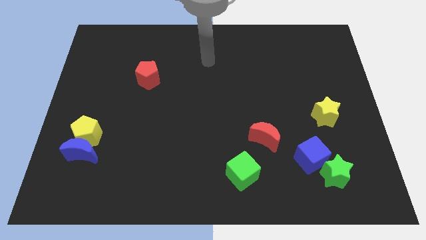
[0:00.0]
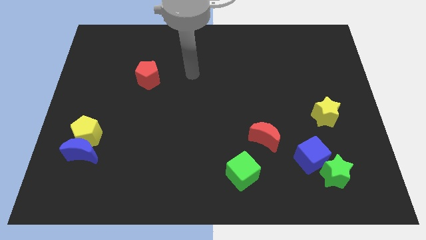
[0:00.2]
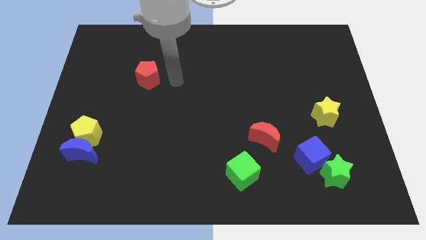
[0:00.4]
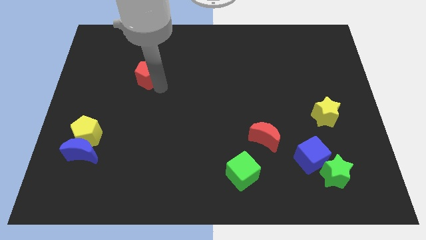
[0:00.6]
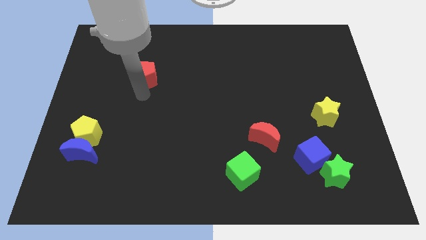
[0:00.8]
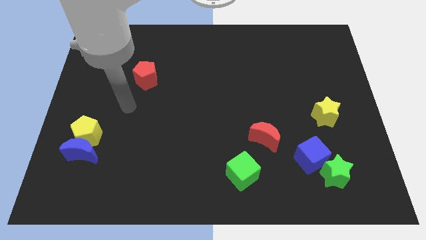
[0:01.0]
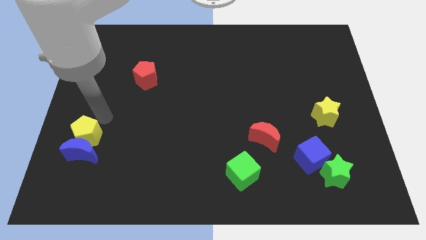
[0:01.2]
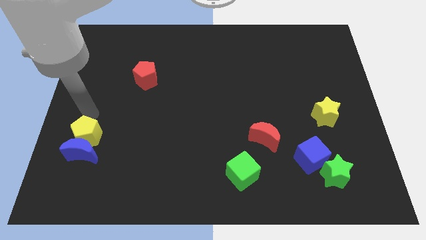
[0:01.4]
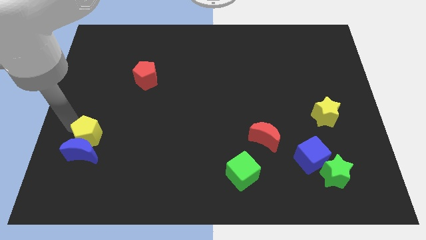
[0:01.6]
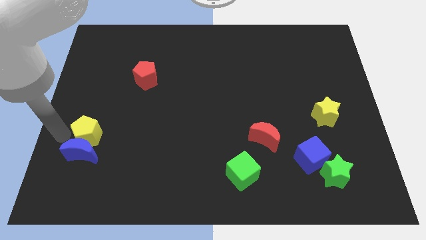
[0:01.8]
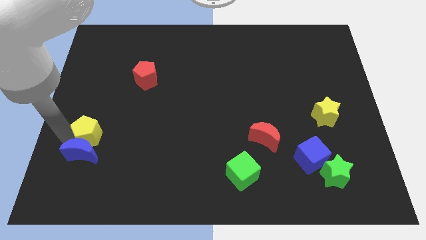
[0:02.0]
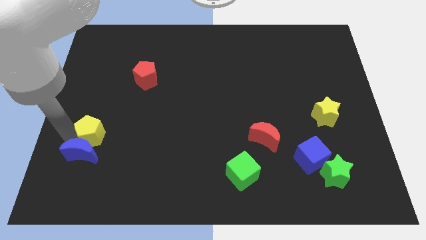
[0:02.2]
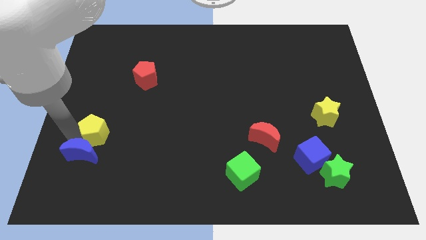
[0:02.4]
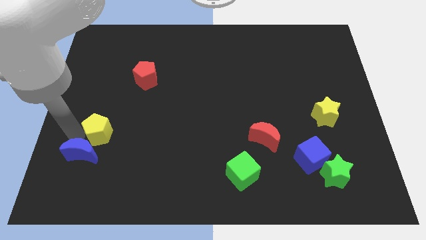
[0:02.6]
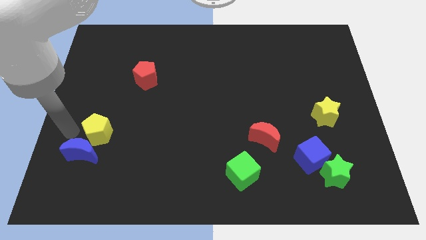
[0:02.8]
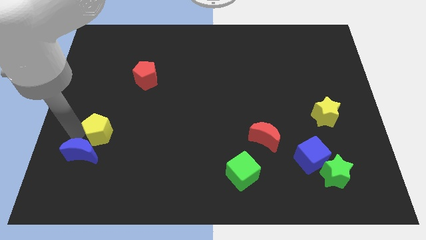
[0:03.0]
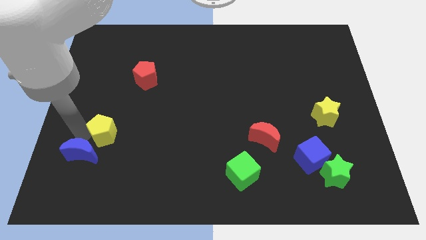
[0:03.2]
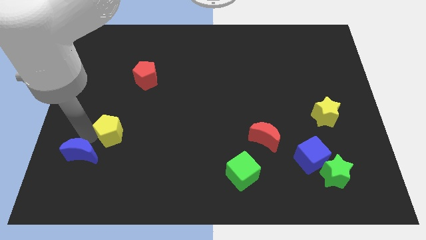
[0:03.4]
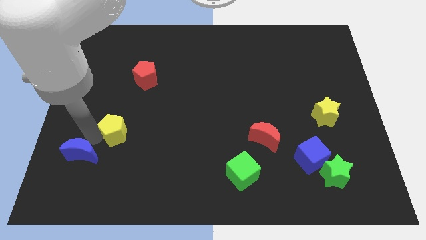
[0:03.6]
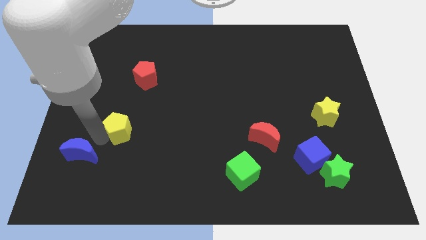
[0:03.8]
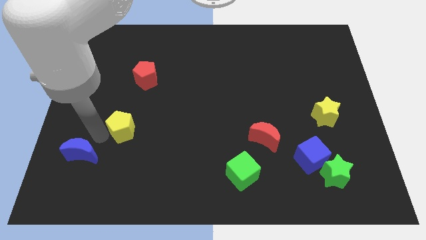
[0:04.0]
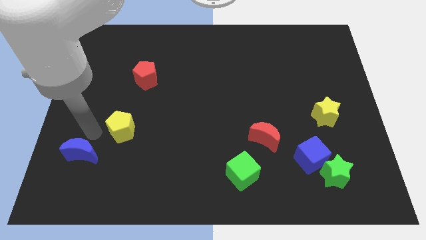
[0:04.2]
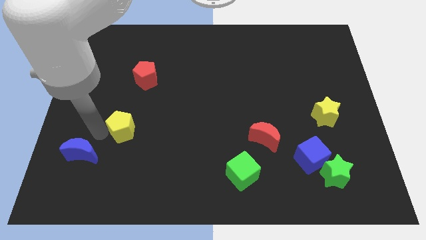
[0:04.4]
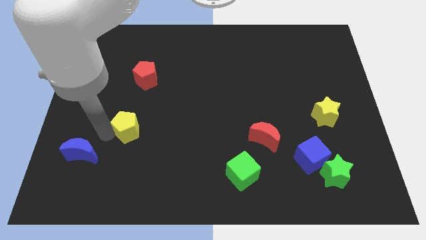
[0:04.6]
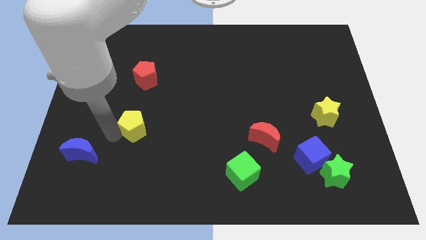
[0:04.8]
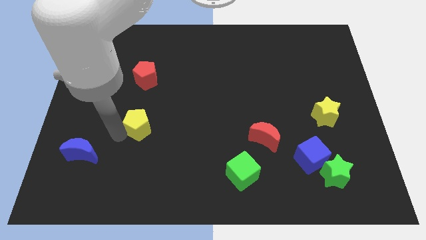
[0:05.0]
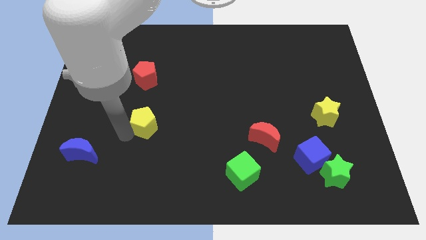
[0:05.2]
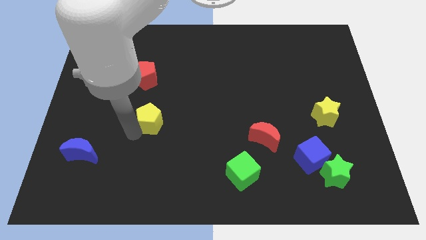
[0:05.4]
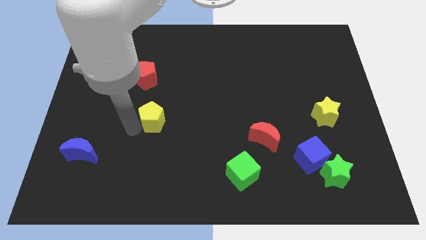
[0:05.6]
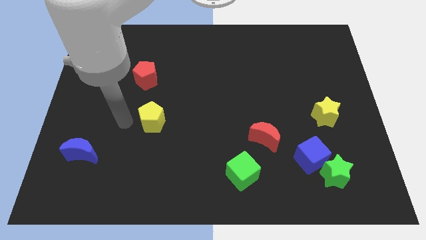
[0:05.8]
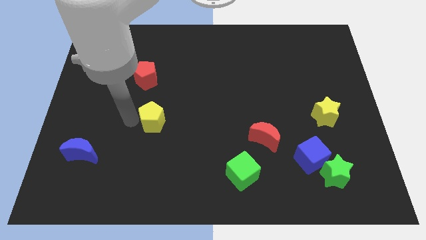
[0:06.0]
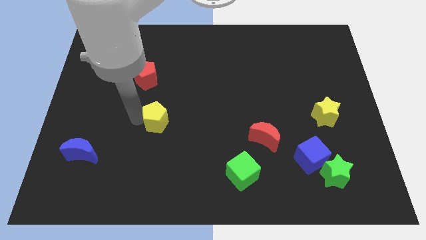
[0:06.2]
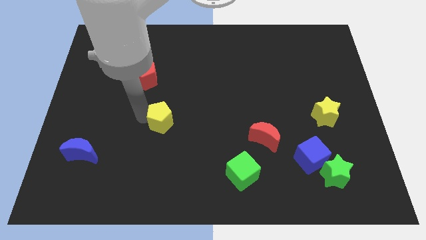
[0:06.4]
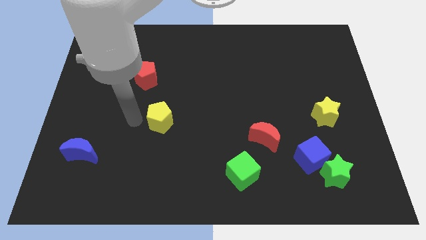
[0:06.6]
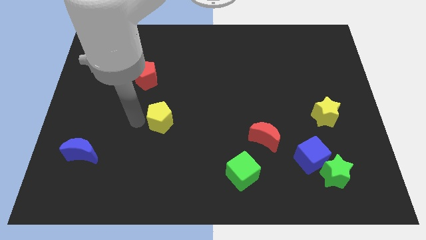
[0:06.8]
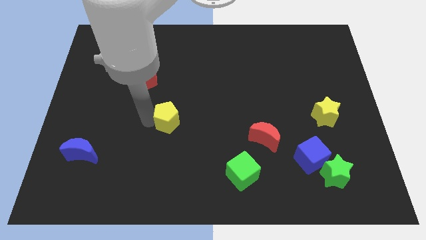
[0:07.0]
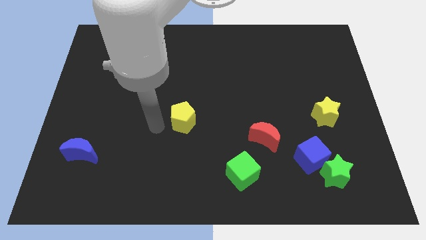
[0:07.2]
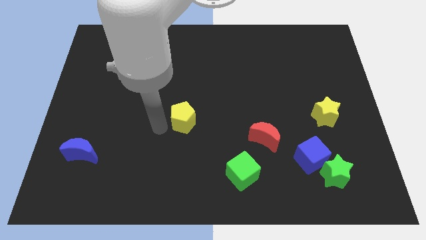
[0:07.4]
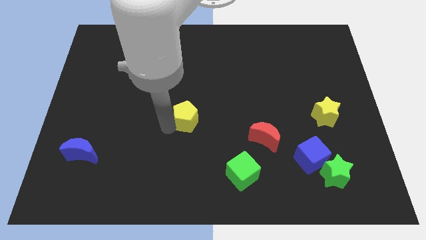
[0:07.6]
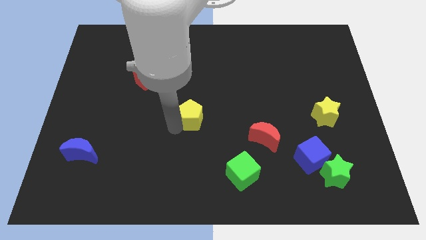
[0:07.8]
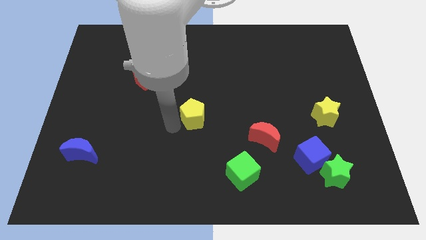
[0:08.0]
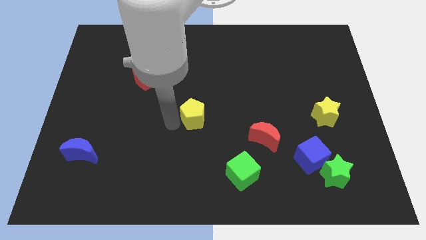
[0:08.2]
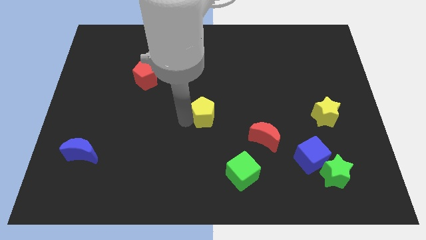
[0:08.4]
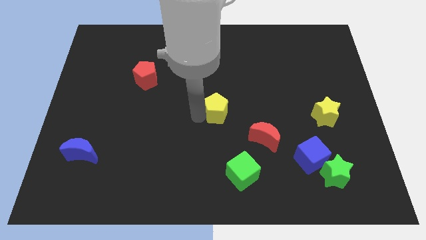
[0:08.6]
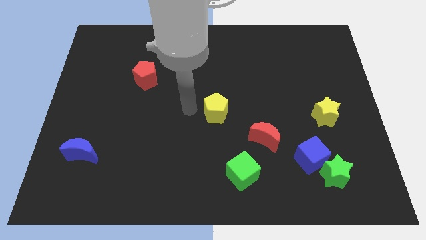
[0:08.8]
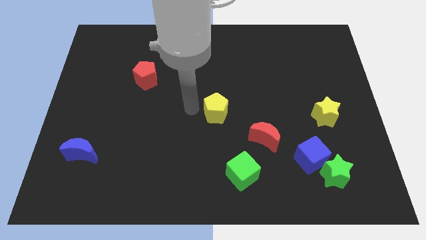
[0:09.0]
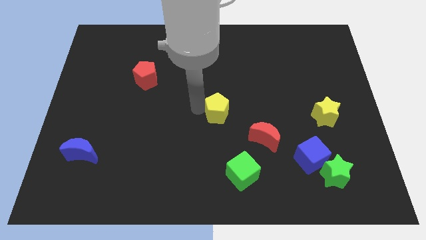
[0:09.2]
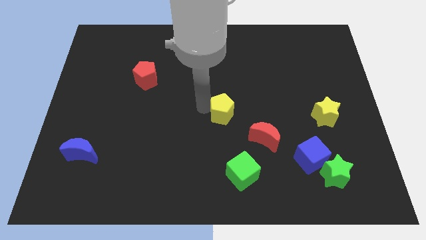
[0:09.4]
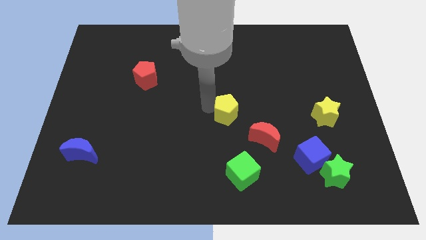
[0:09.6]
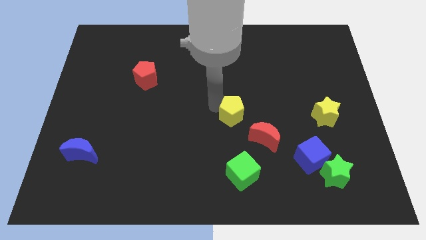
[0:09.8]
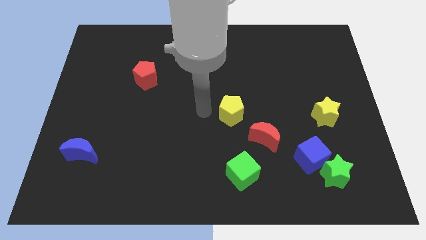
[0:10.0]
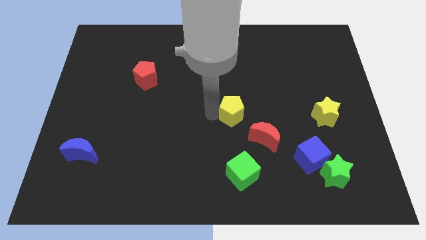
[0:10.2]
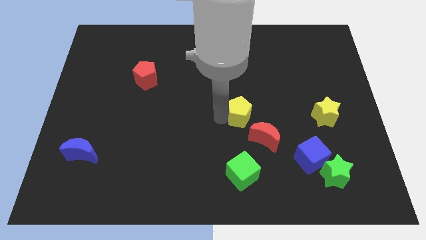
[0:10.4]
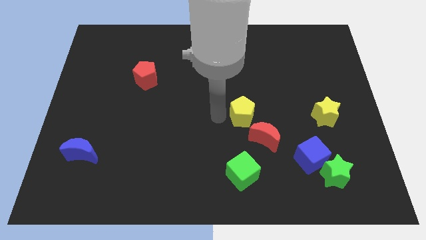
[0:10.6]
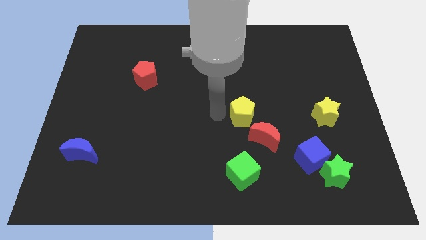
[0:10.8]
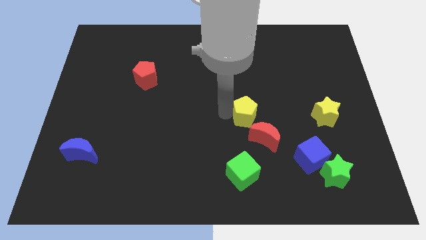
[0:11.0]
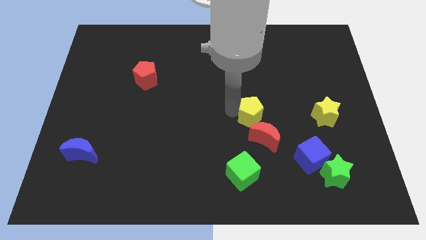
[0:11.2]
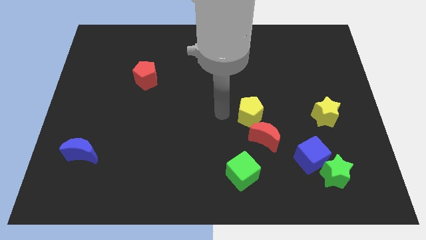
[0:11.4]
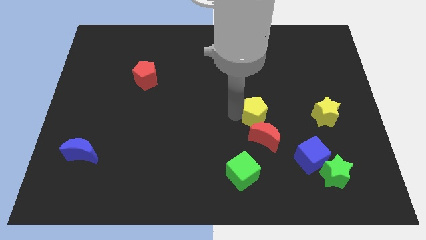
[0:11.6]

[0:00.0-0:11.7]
put the yellow pentagon left of the yellow star

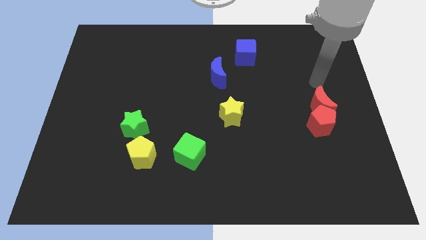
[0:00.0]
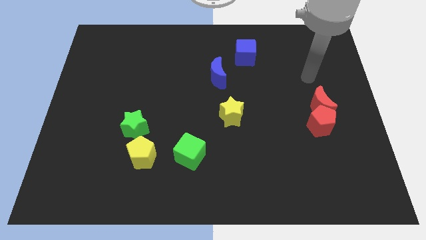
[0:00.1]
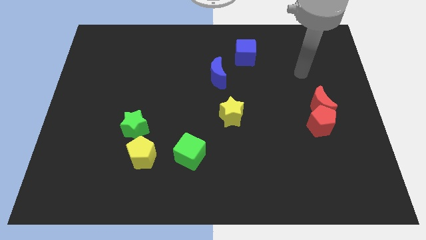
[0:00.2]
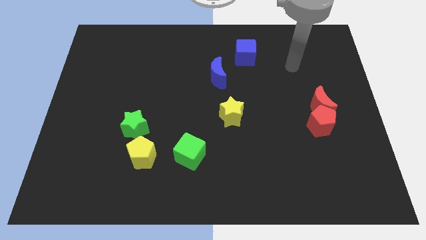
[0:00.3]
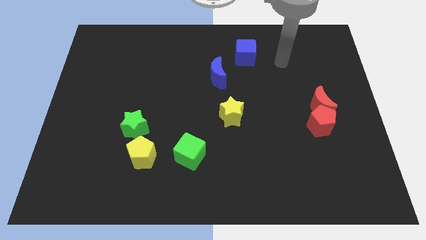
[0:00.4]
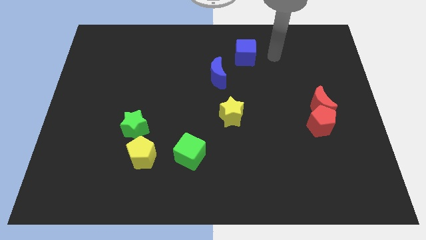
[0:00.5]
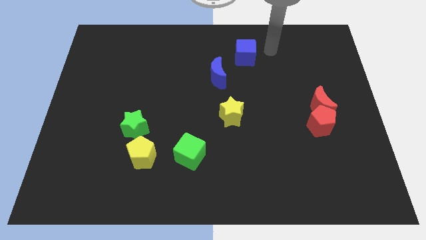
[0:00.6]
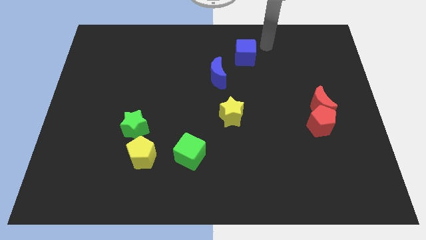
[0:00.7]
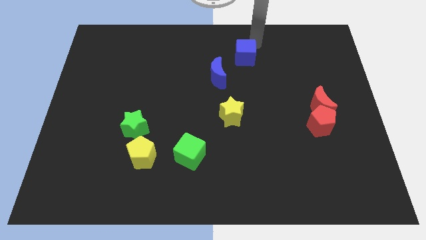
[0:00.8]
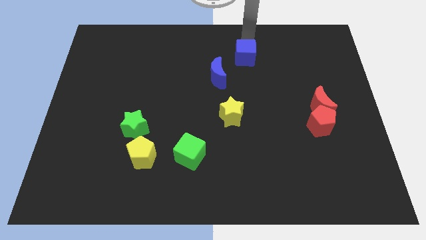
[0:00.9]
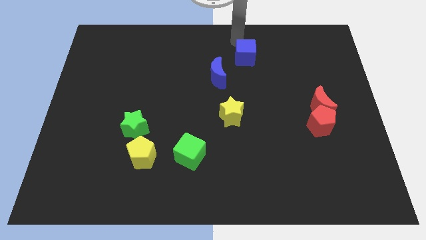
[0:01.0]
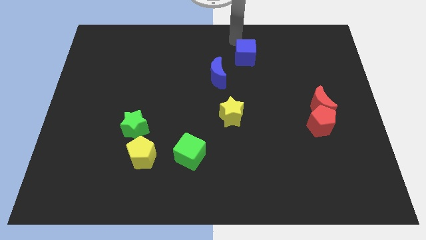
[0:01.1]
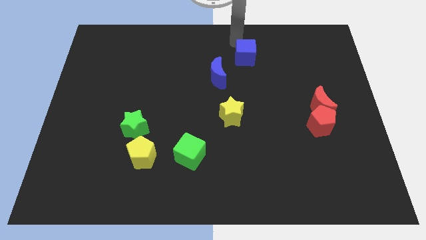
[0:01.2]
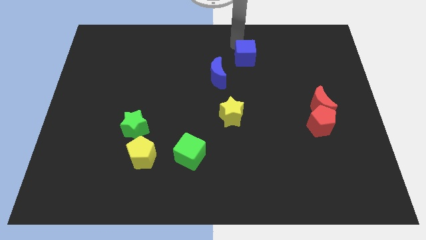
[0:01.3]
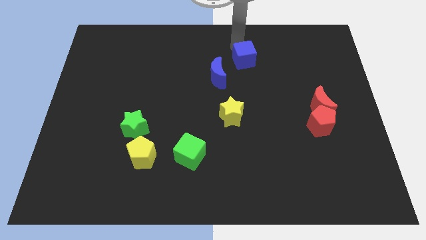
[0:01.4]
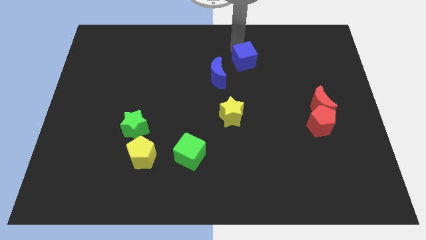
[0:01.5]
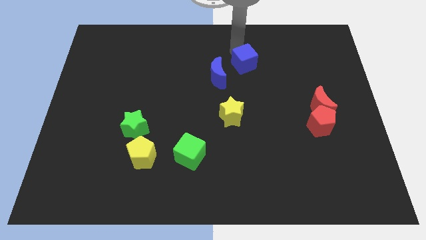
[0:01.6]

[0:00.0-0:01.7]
slide the blue cube right of the blue moon
